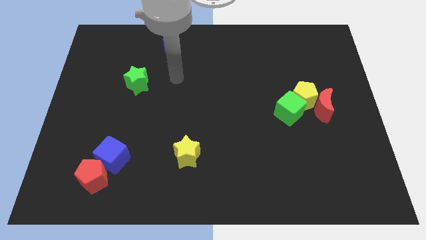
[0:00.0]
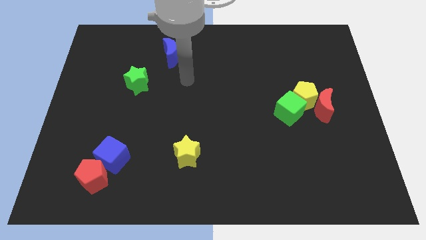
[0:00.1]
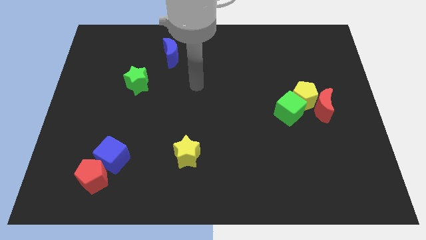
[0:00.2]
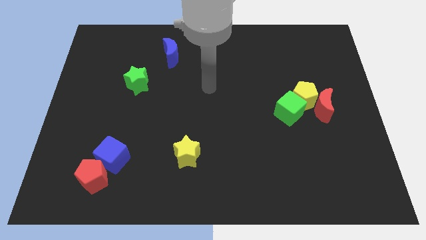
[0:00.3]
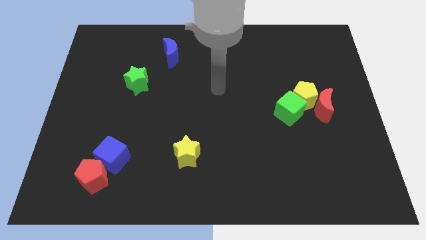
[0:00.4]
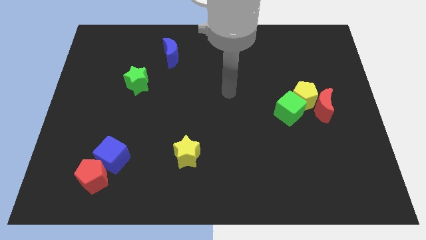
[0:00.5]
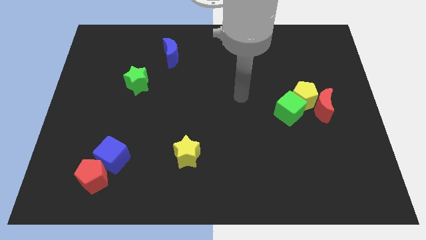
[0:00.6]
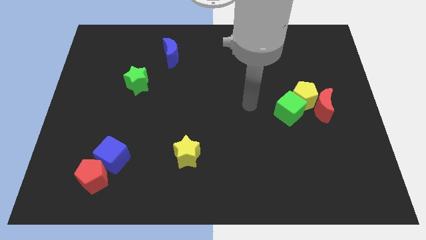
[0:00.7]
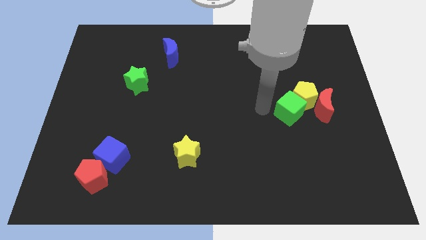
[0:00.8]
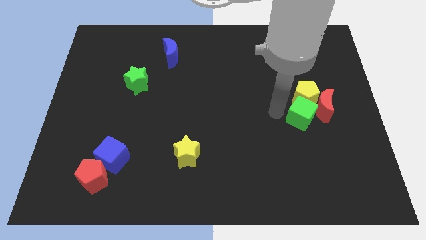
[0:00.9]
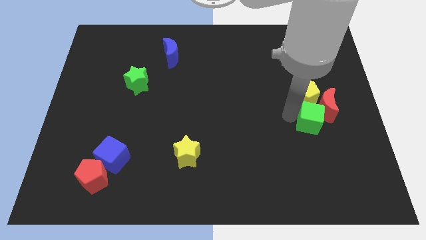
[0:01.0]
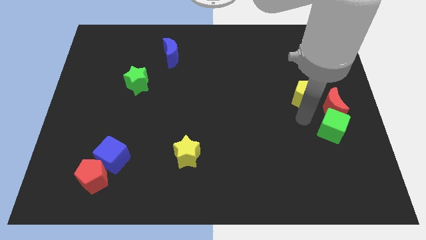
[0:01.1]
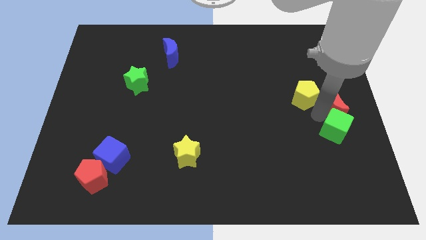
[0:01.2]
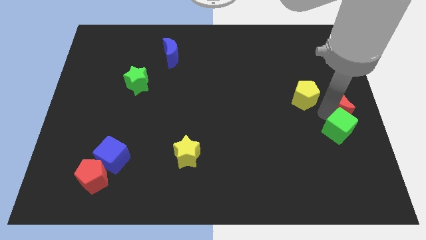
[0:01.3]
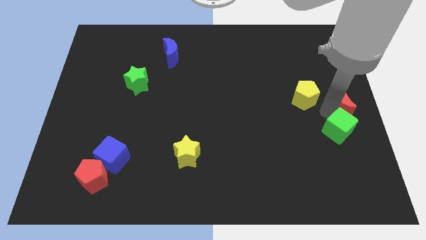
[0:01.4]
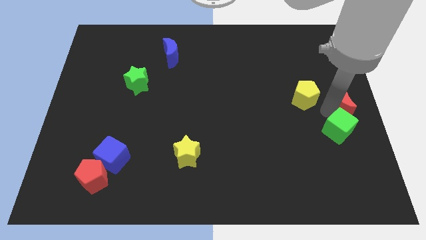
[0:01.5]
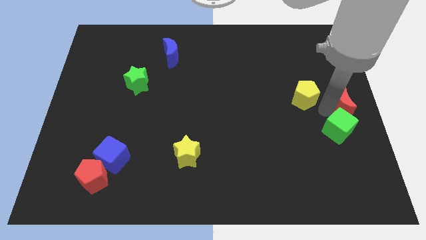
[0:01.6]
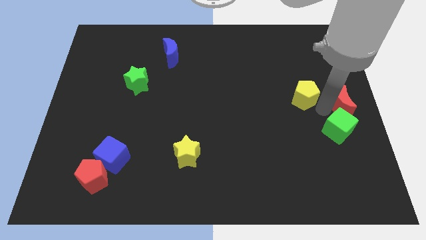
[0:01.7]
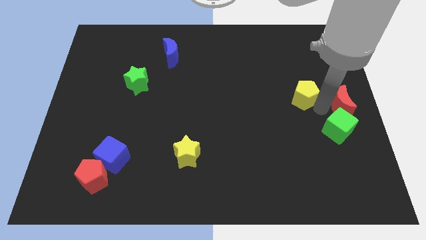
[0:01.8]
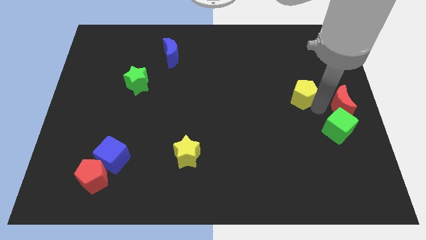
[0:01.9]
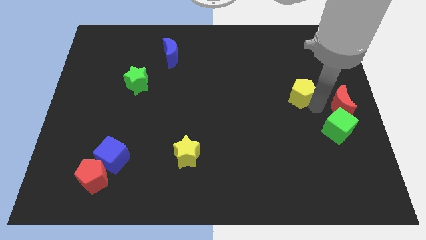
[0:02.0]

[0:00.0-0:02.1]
pull the yellow pentagon apart from the red moon and green cube

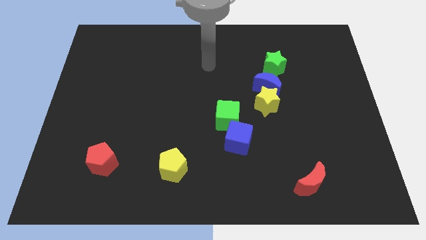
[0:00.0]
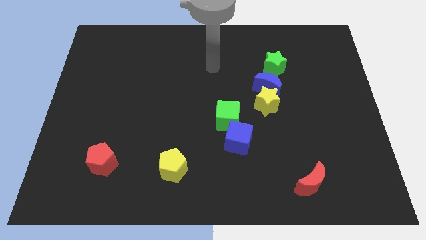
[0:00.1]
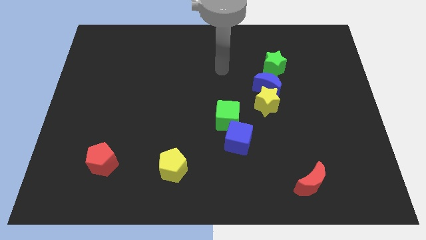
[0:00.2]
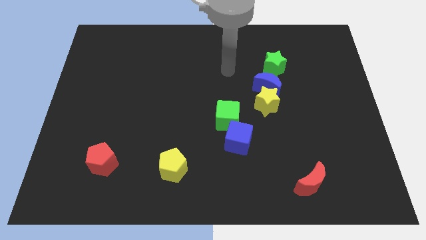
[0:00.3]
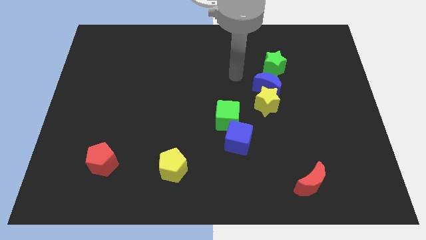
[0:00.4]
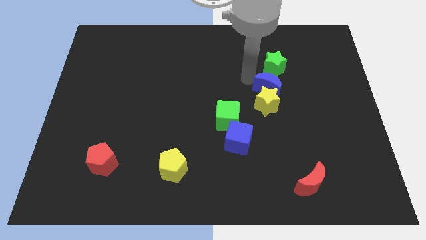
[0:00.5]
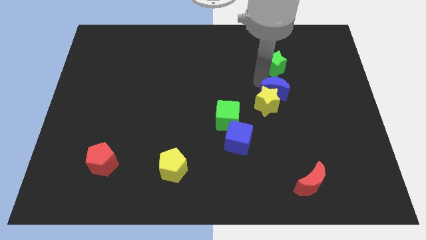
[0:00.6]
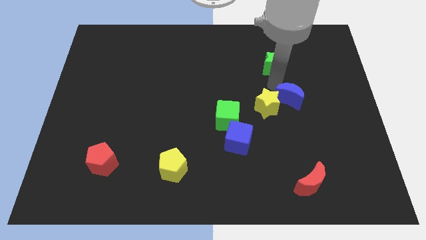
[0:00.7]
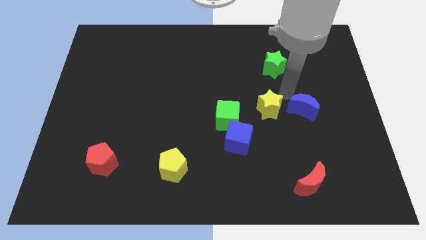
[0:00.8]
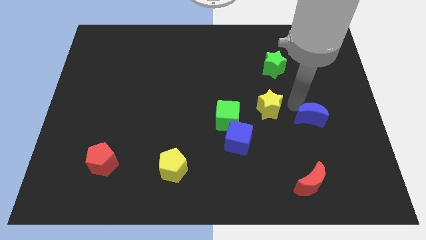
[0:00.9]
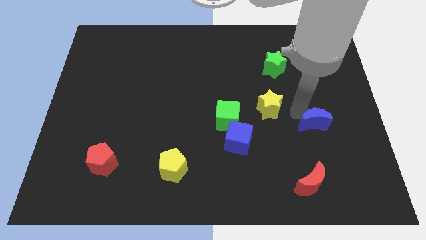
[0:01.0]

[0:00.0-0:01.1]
separate the yellow star from the blue moon

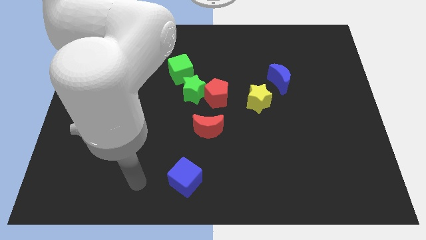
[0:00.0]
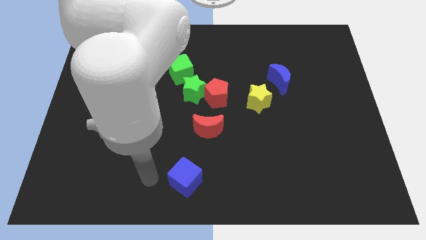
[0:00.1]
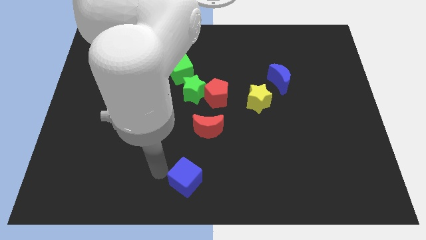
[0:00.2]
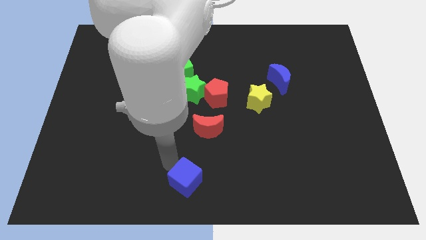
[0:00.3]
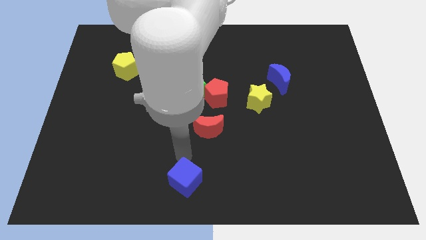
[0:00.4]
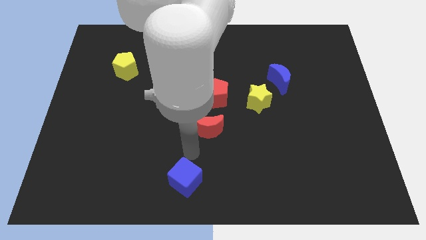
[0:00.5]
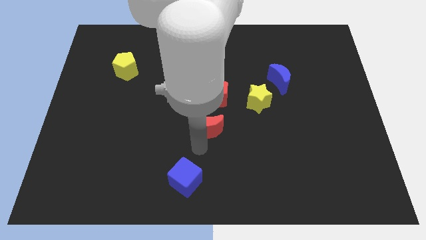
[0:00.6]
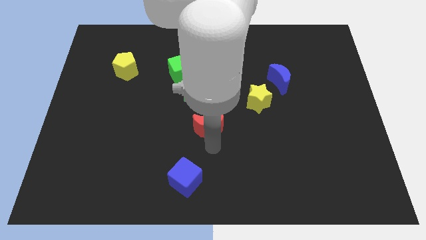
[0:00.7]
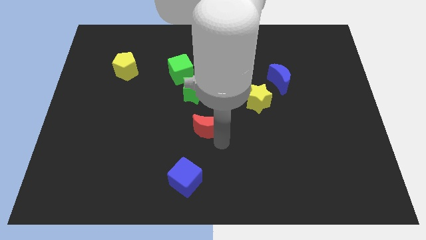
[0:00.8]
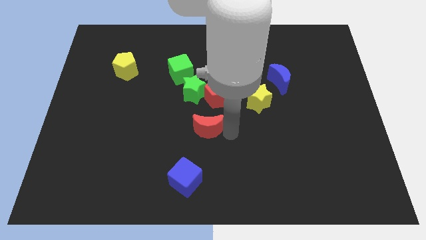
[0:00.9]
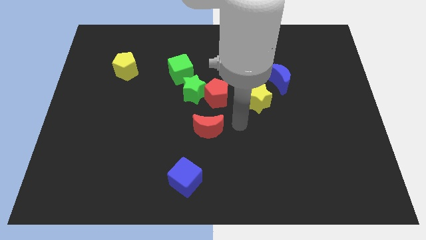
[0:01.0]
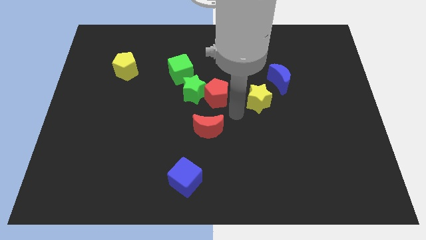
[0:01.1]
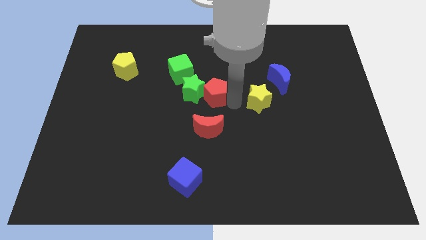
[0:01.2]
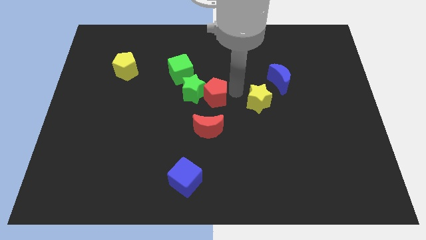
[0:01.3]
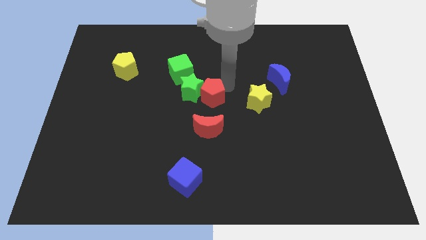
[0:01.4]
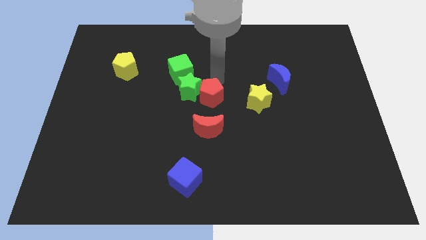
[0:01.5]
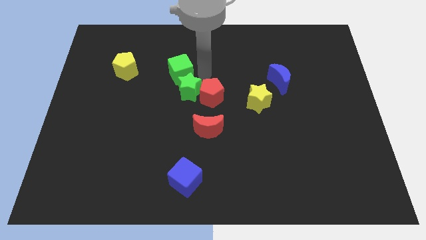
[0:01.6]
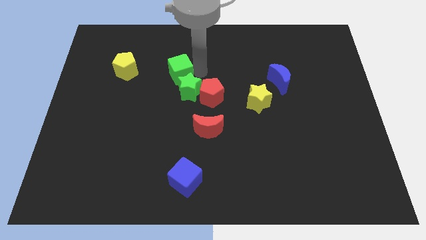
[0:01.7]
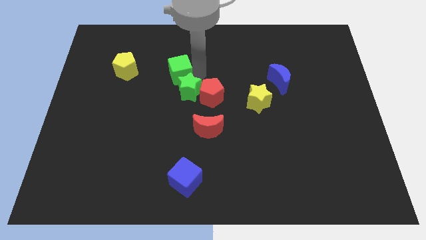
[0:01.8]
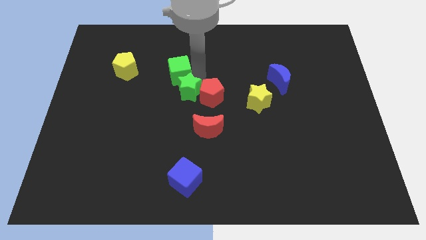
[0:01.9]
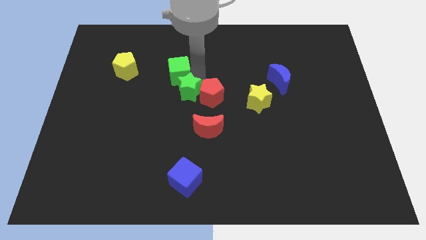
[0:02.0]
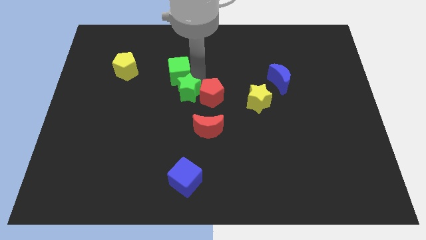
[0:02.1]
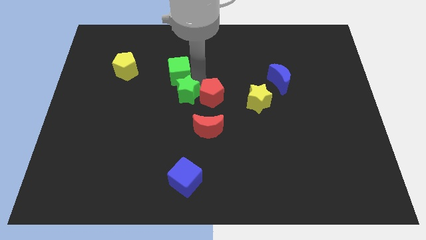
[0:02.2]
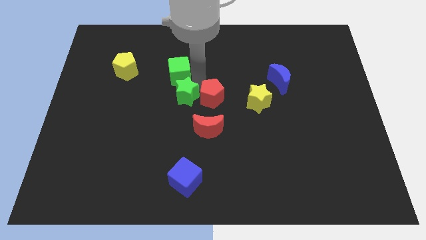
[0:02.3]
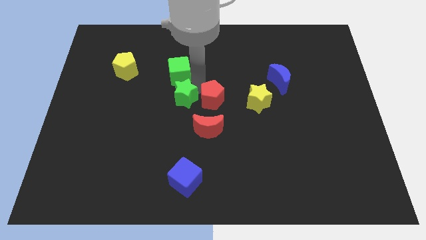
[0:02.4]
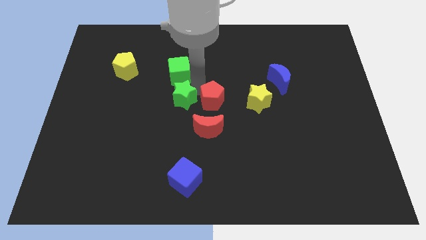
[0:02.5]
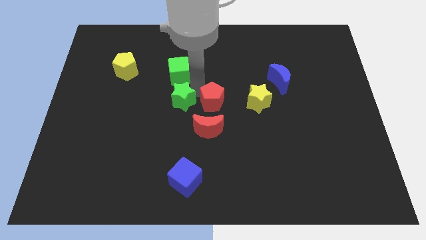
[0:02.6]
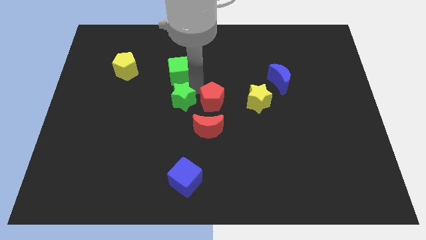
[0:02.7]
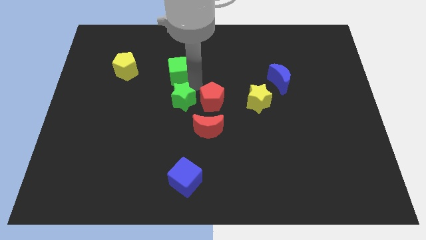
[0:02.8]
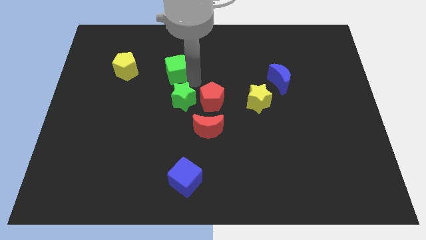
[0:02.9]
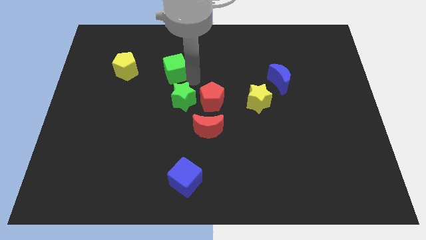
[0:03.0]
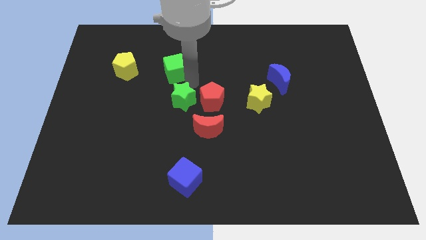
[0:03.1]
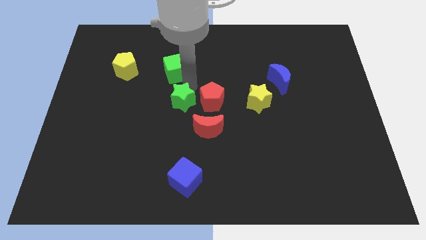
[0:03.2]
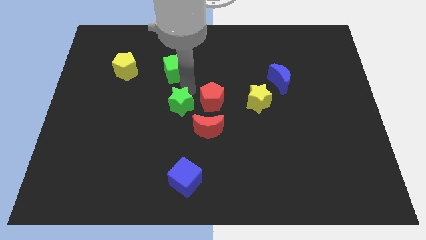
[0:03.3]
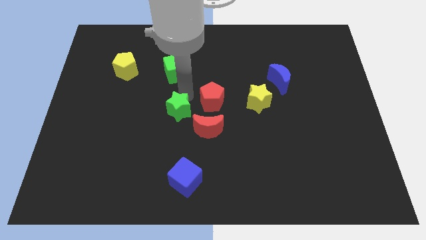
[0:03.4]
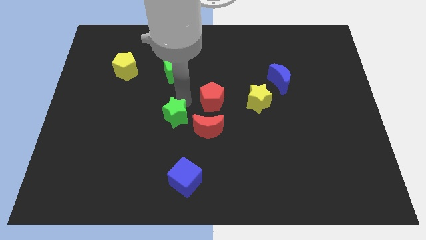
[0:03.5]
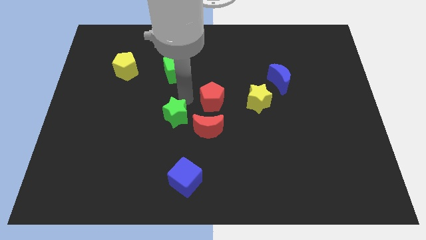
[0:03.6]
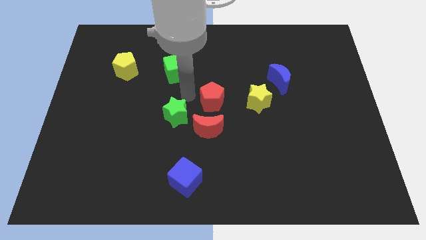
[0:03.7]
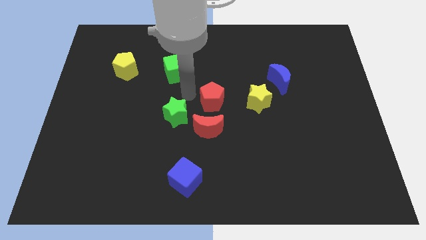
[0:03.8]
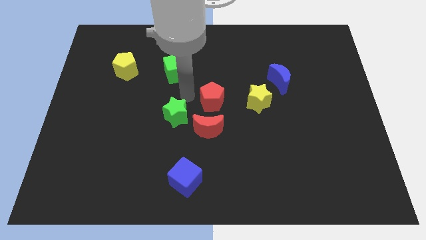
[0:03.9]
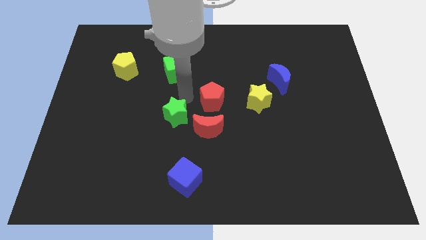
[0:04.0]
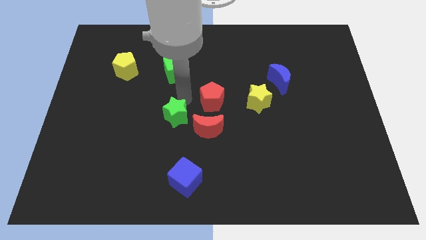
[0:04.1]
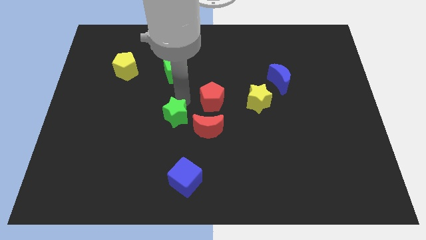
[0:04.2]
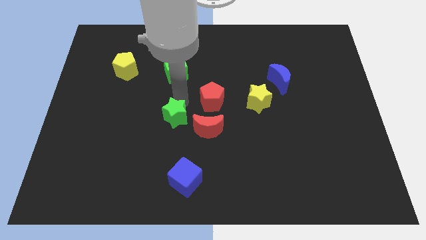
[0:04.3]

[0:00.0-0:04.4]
move the green star away from the red pentagon and green cube

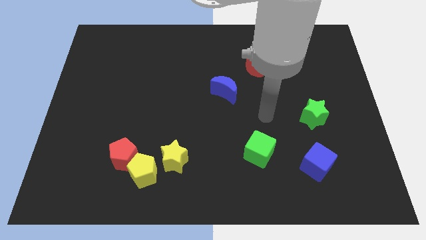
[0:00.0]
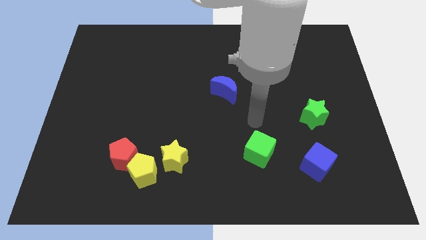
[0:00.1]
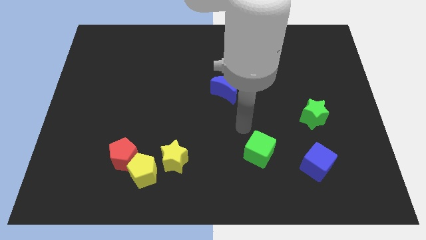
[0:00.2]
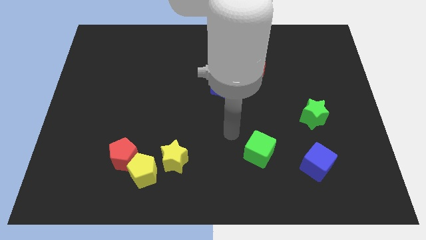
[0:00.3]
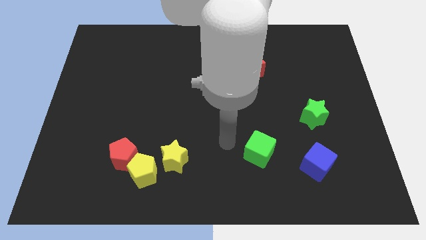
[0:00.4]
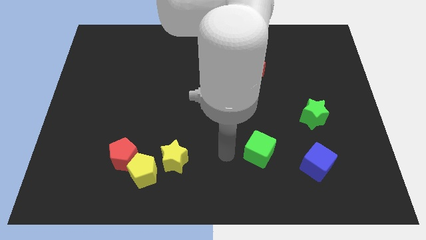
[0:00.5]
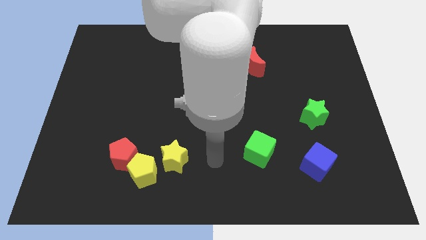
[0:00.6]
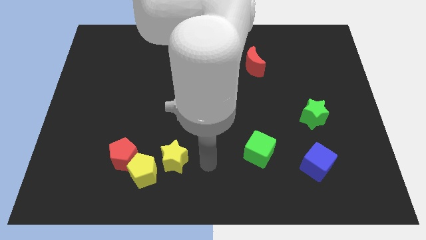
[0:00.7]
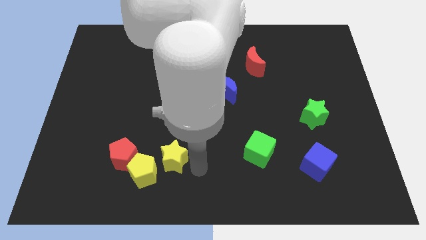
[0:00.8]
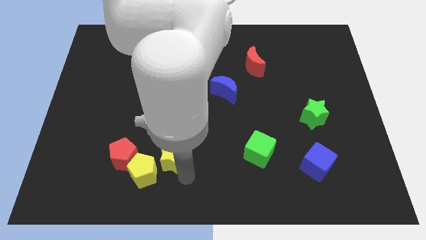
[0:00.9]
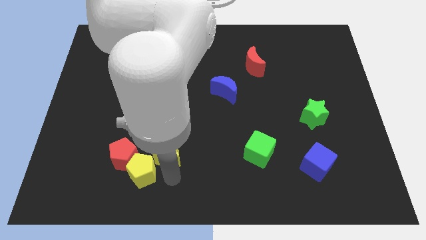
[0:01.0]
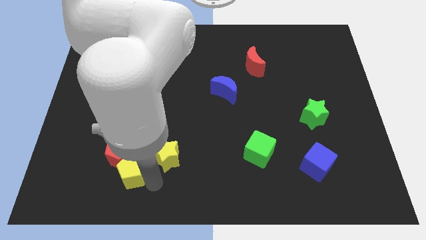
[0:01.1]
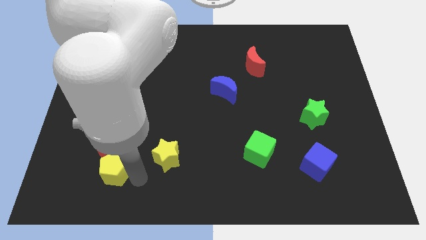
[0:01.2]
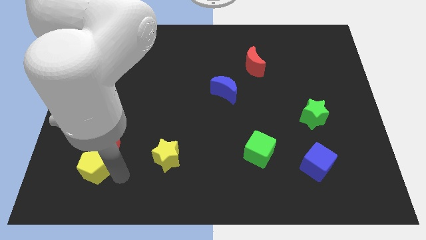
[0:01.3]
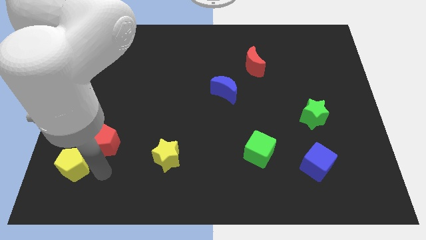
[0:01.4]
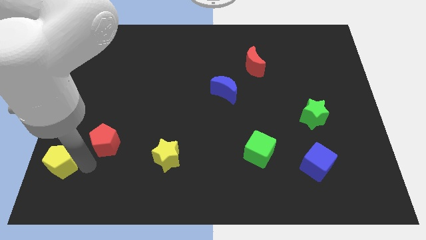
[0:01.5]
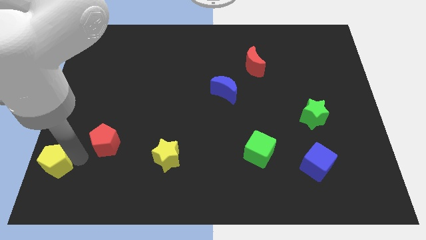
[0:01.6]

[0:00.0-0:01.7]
move the red pentagon away from the yellow pentagon

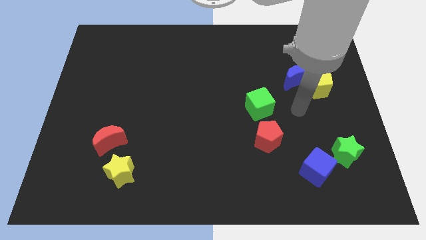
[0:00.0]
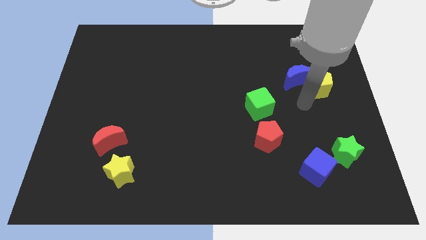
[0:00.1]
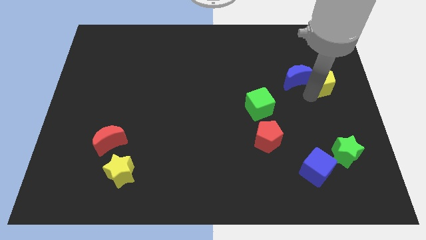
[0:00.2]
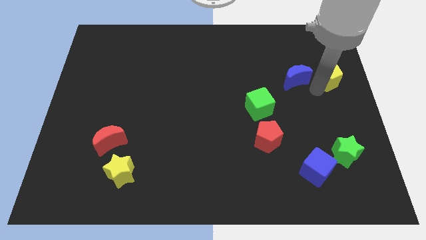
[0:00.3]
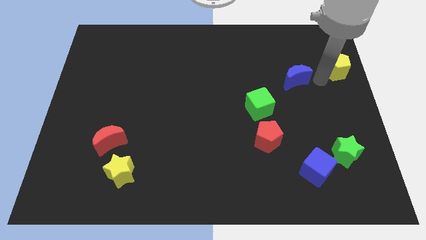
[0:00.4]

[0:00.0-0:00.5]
separate the blue moon from the yellow pentagon
